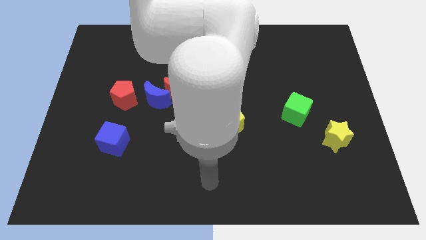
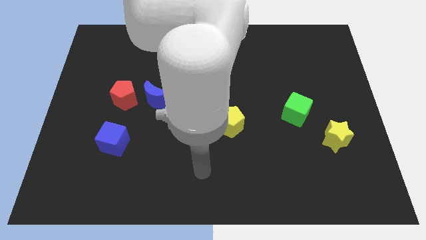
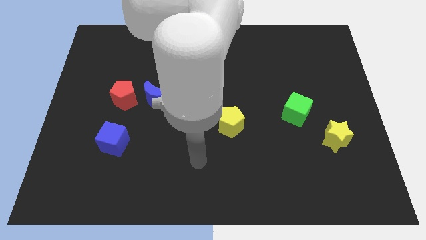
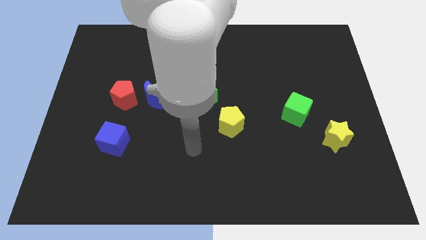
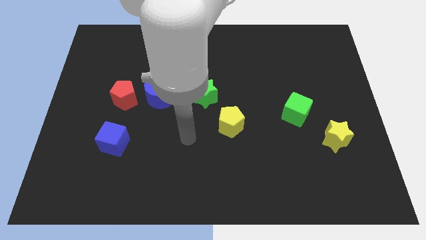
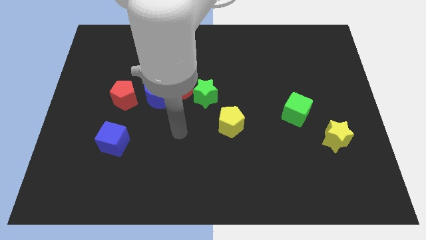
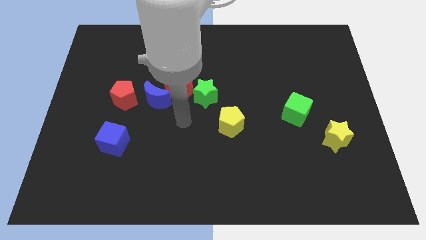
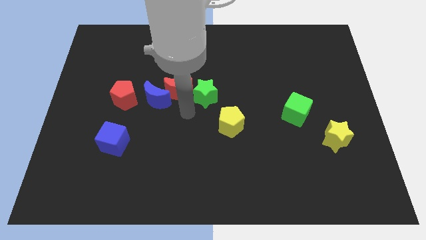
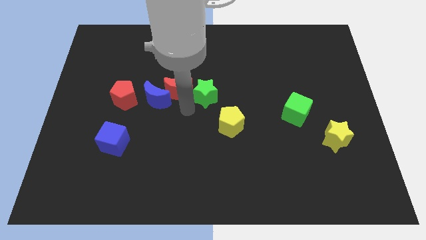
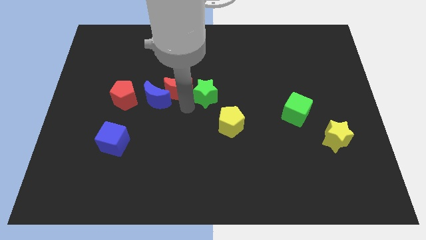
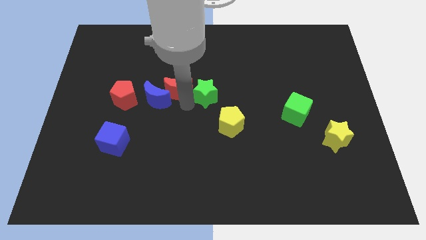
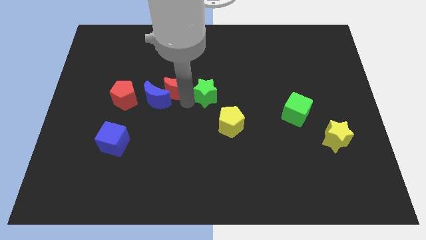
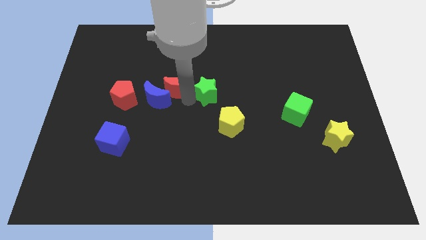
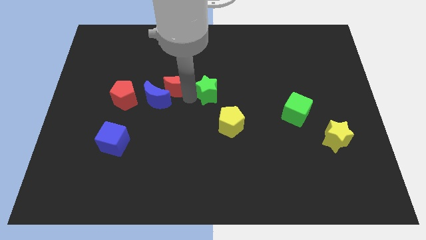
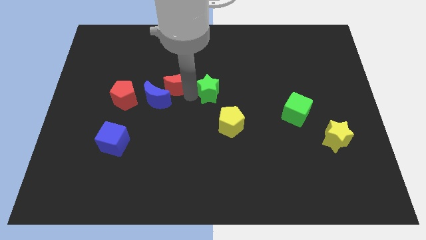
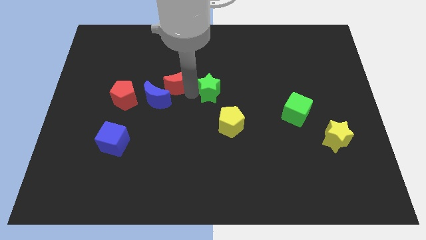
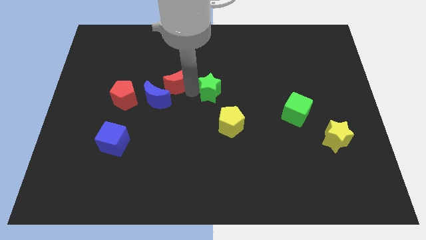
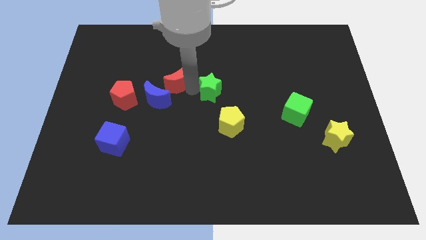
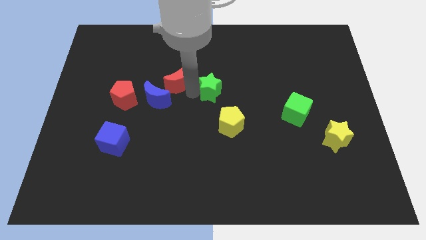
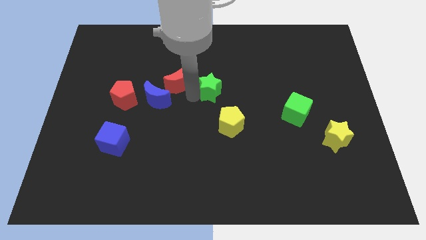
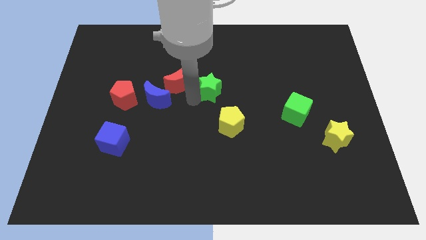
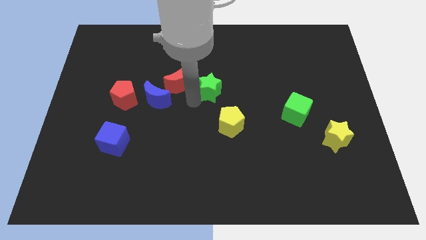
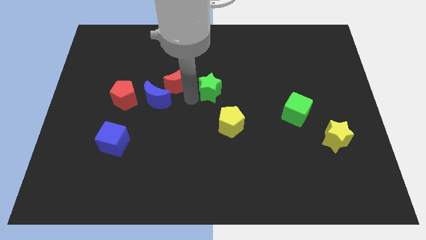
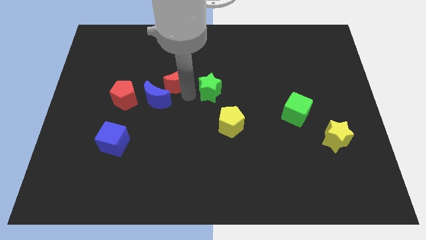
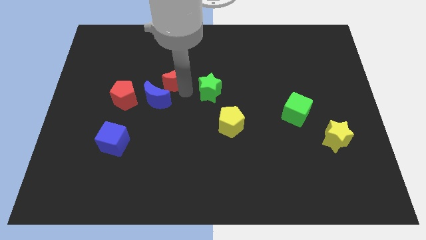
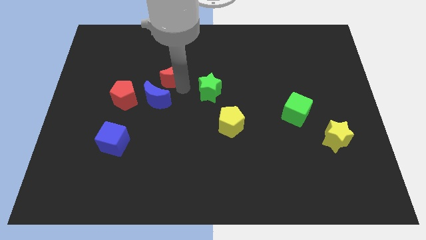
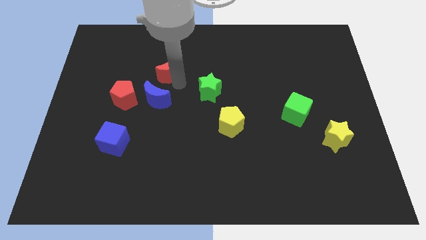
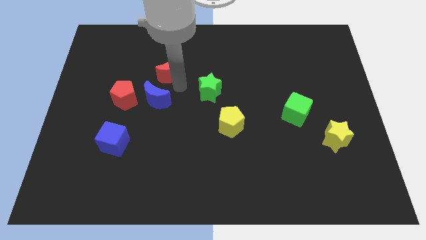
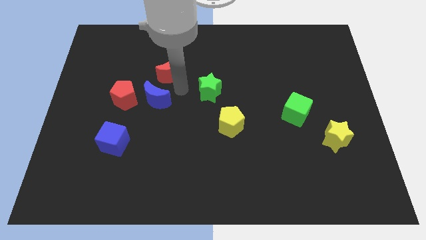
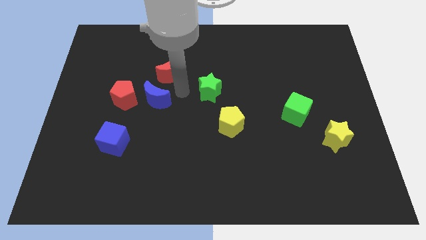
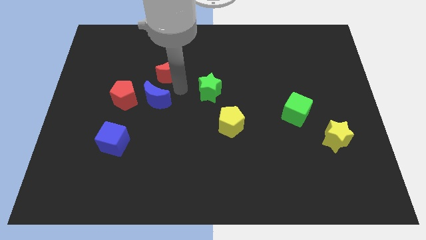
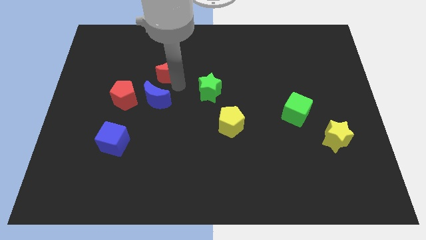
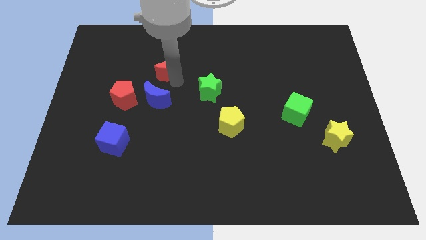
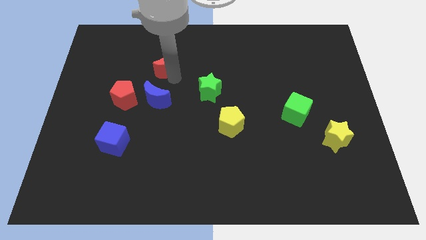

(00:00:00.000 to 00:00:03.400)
move the red moon away from the blue moon and green star

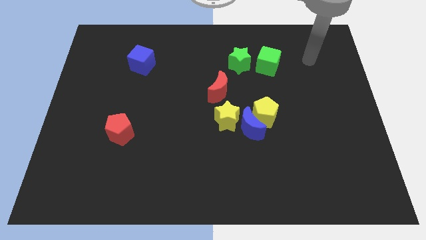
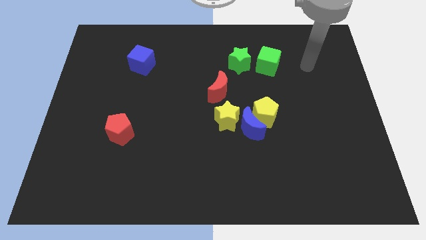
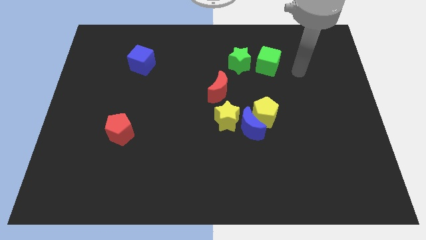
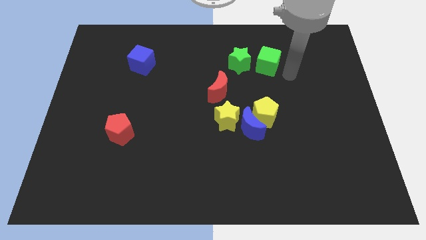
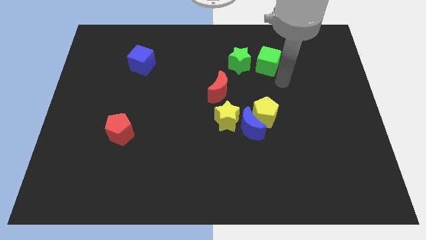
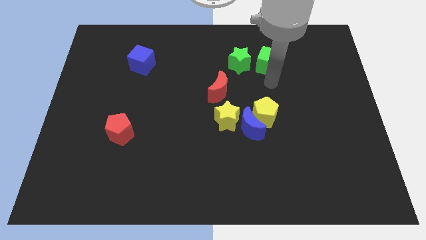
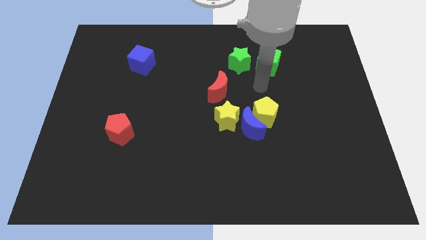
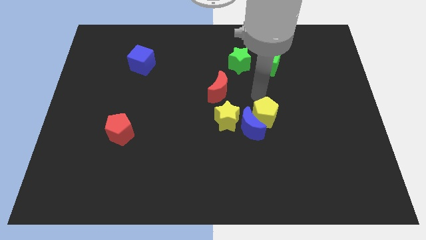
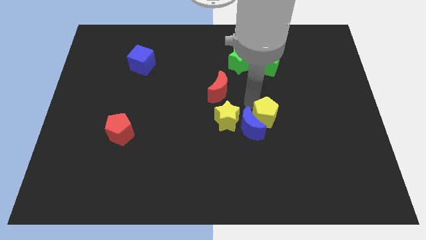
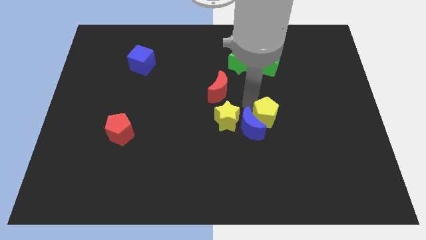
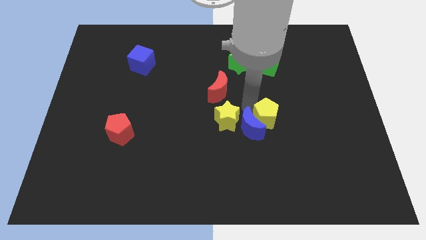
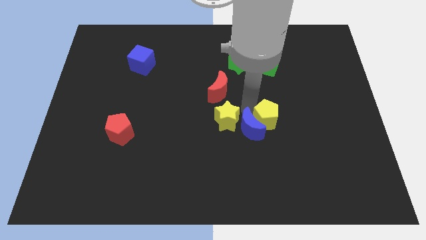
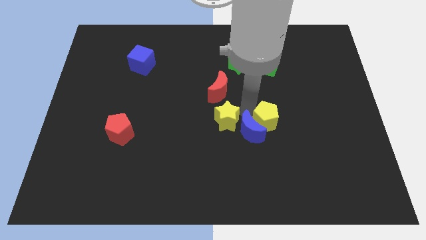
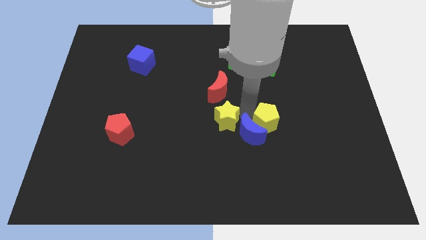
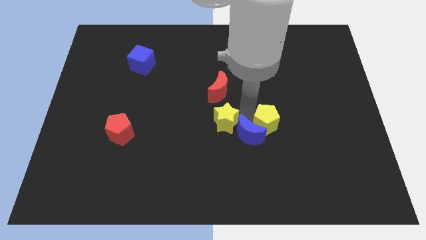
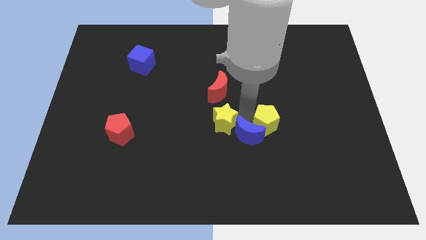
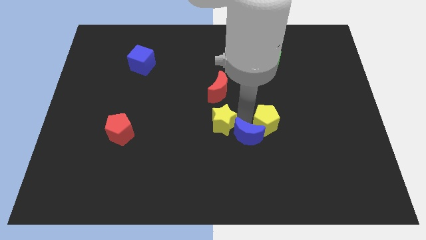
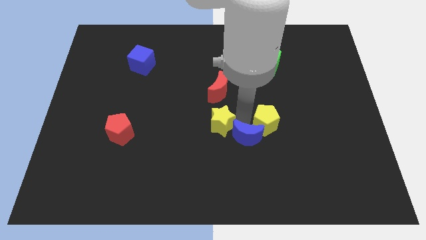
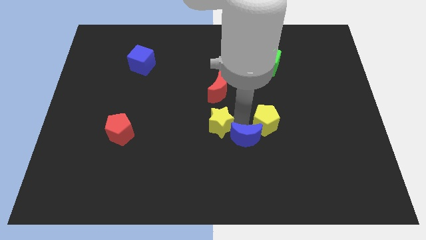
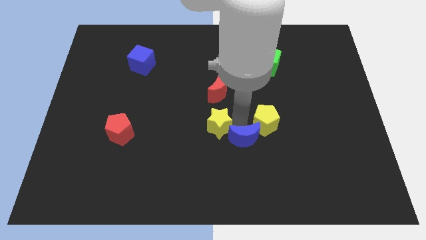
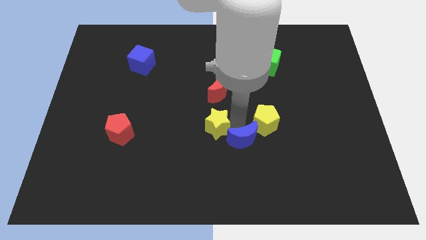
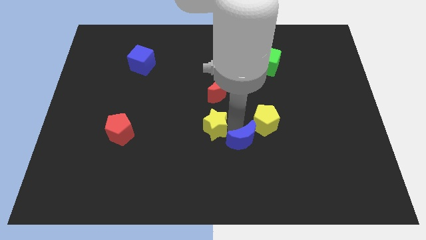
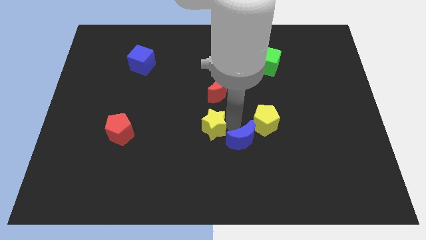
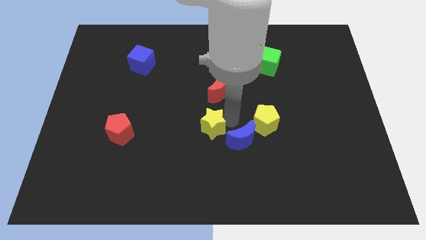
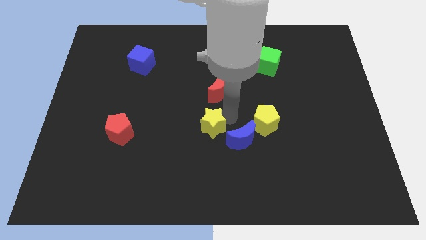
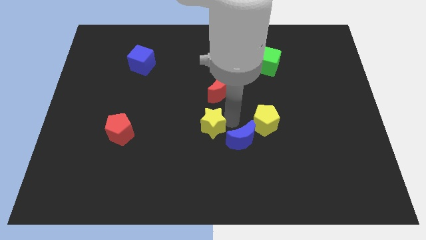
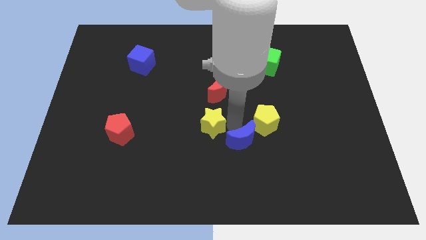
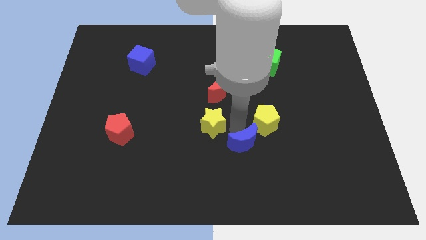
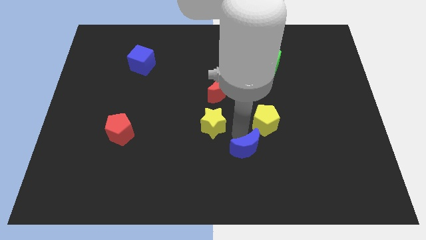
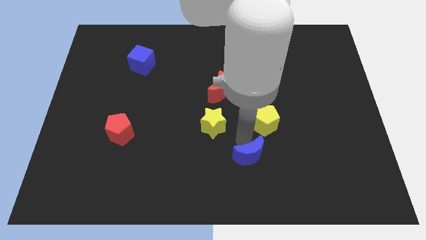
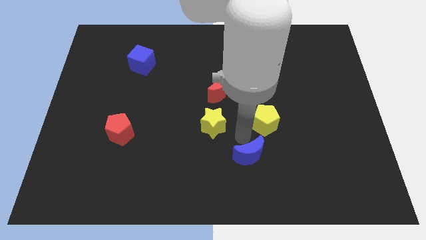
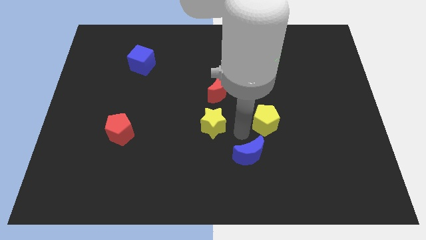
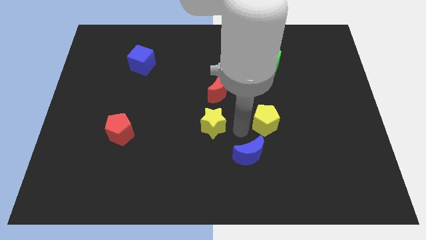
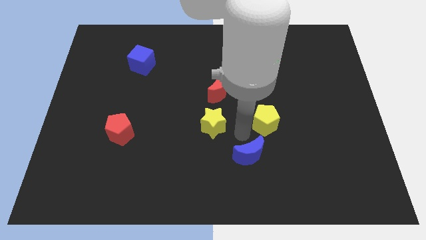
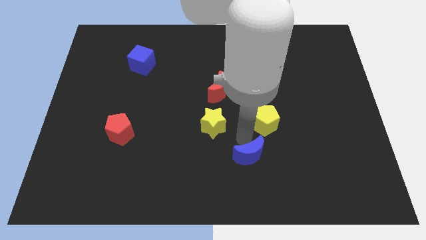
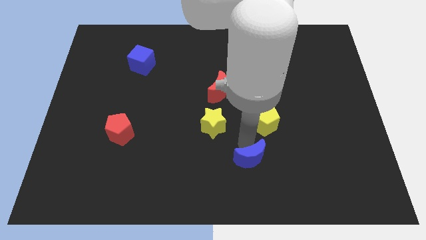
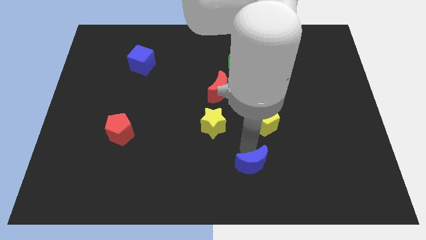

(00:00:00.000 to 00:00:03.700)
pull the blue moon apart from the yellow pentagon and yellow star

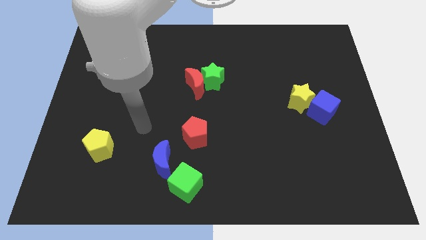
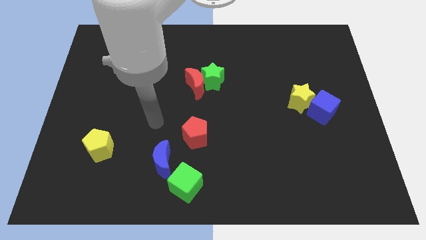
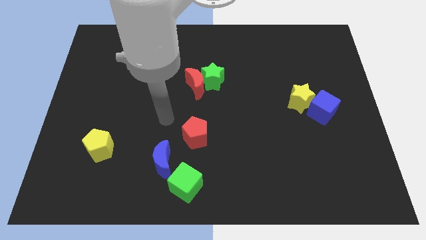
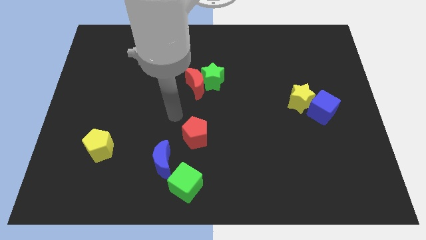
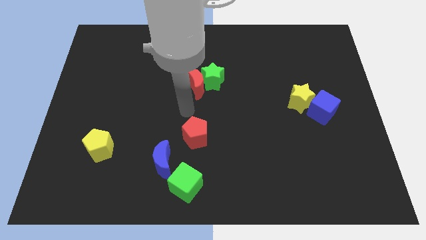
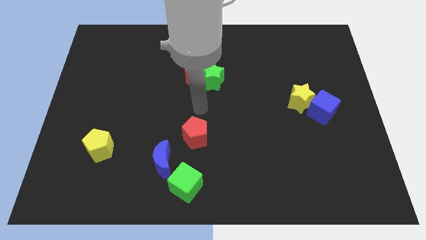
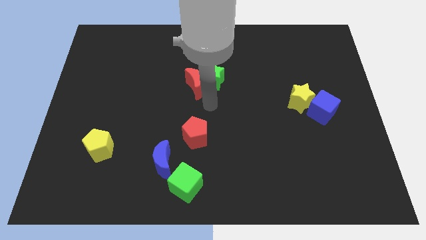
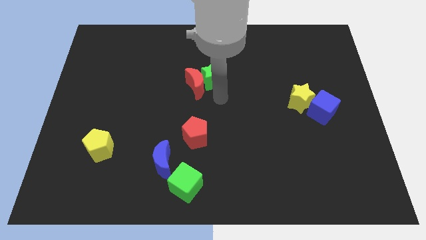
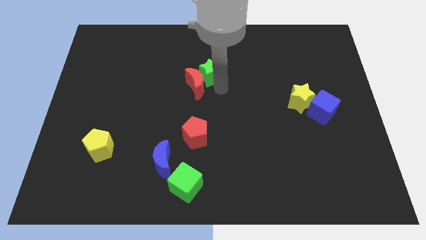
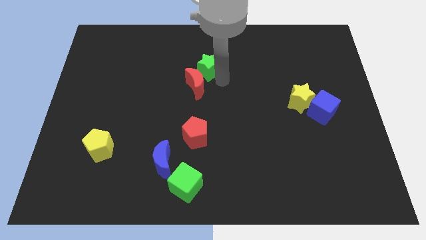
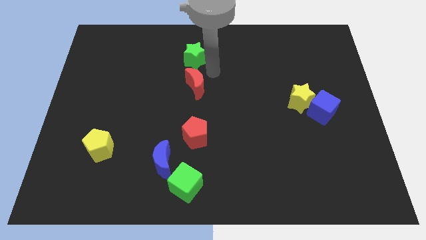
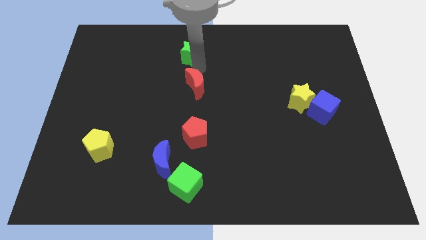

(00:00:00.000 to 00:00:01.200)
separate the red moon from the green star

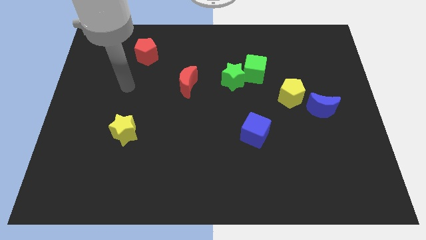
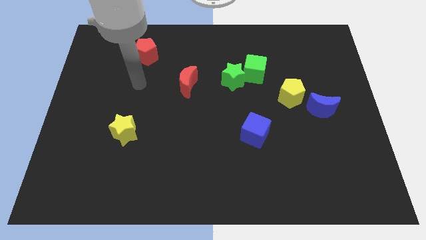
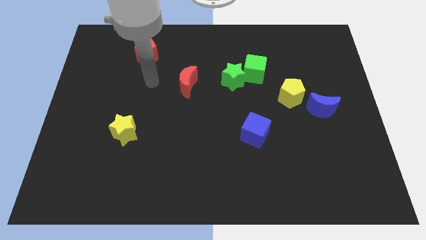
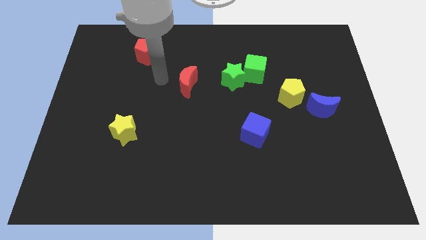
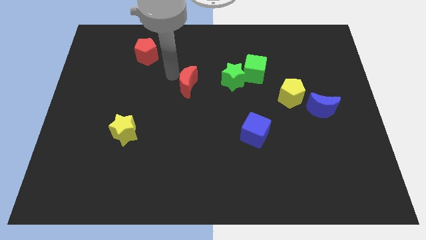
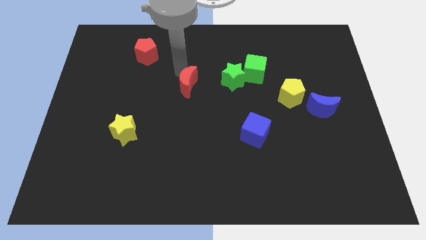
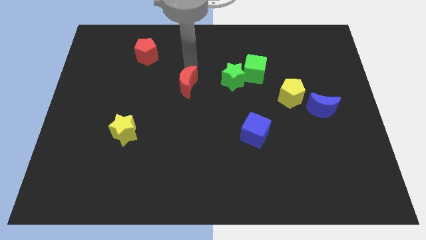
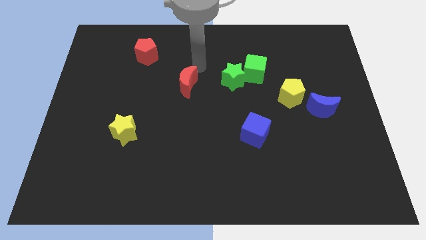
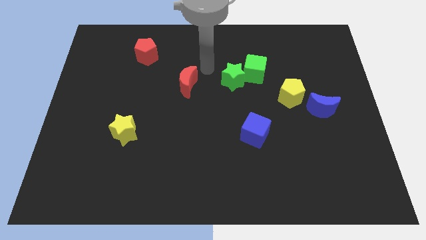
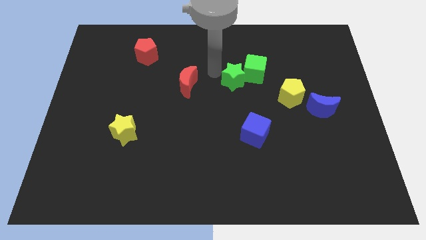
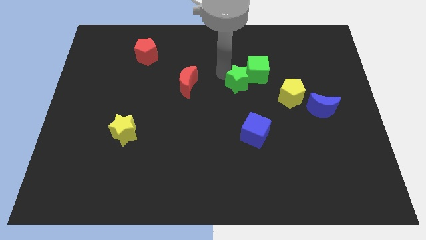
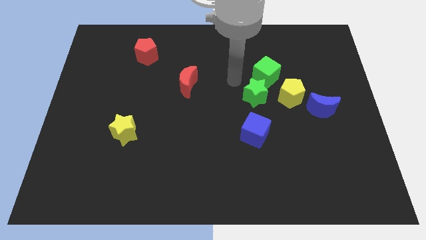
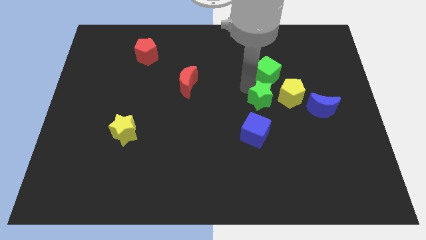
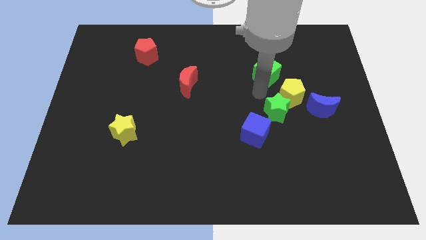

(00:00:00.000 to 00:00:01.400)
pull the green cube apart from the green star
